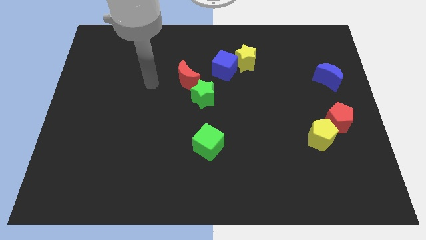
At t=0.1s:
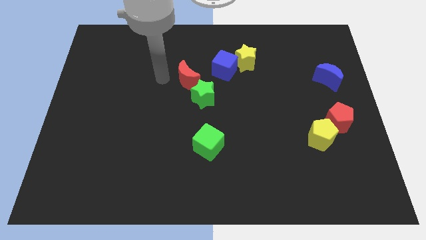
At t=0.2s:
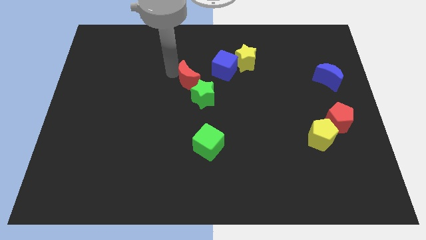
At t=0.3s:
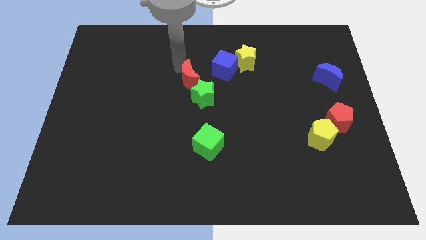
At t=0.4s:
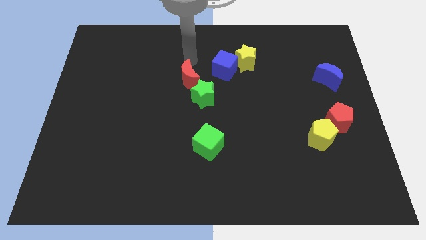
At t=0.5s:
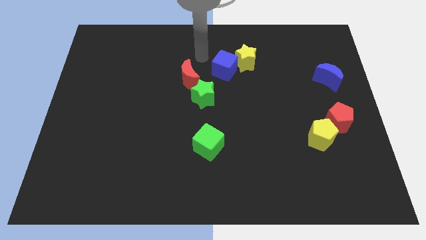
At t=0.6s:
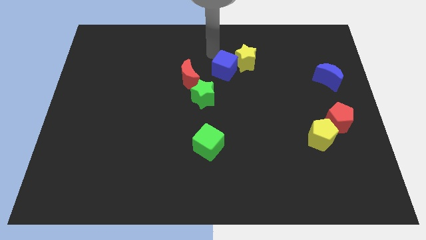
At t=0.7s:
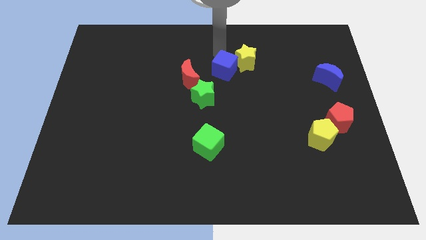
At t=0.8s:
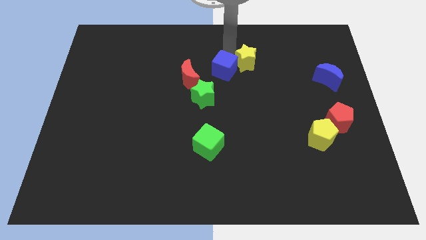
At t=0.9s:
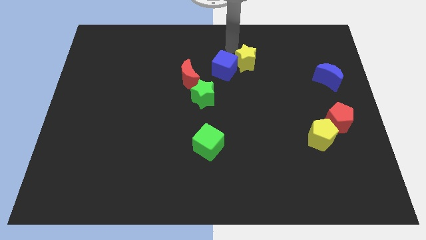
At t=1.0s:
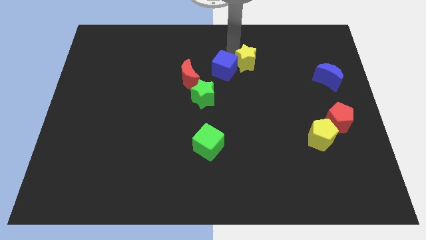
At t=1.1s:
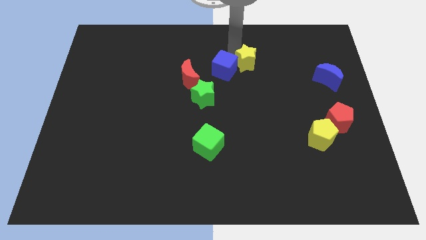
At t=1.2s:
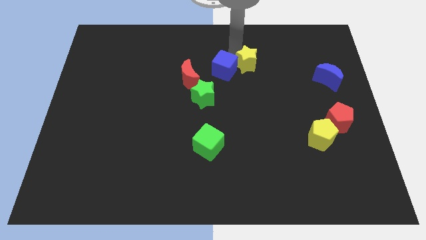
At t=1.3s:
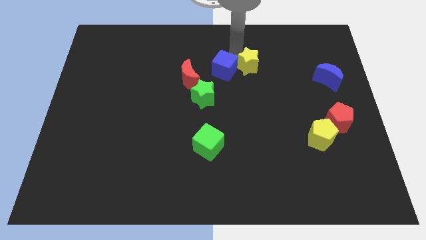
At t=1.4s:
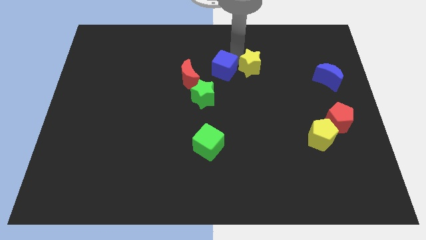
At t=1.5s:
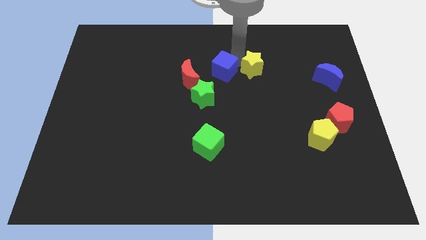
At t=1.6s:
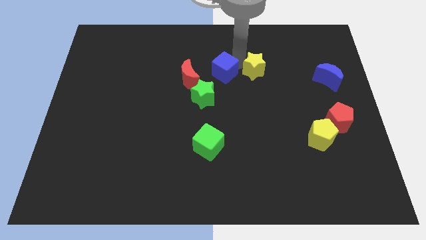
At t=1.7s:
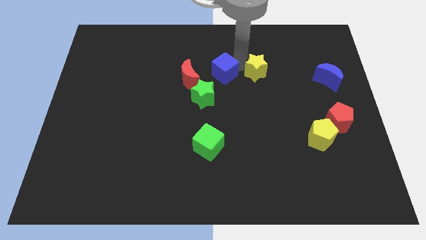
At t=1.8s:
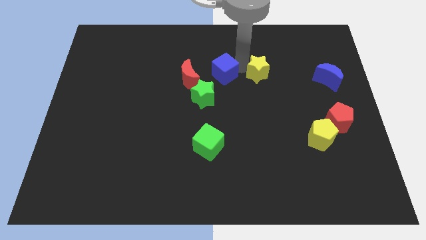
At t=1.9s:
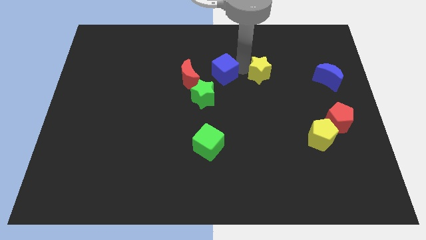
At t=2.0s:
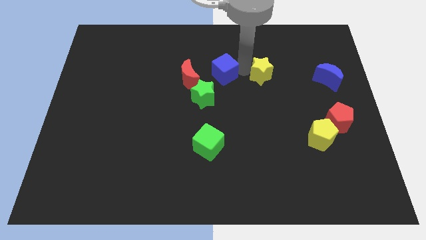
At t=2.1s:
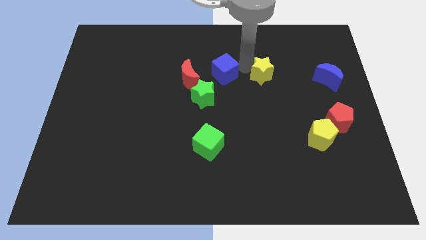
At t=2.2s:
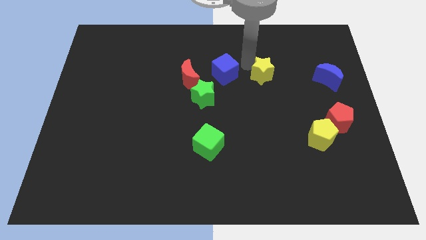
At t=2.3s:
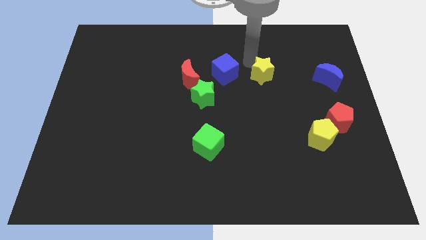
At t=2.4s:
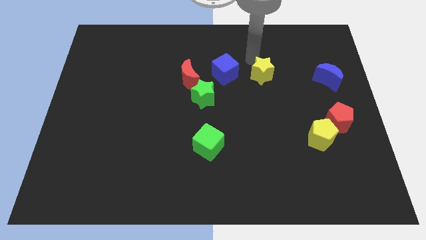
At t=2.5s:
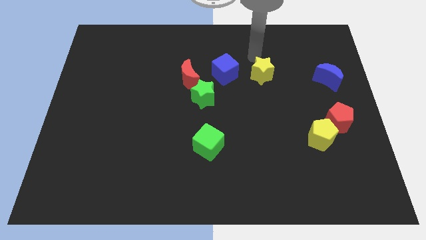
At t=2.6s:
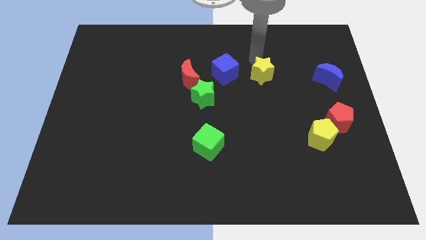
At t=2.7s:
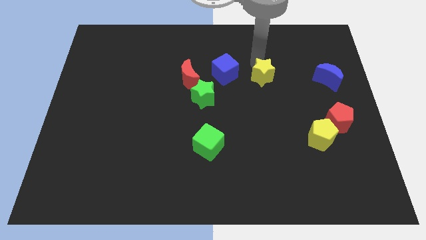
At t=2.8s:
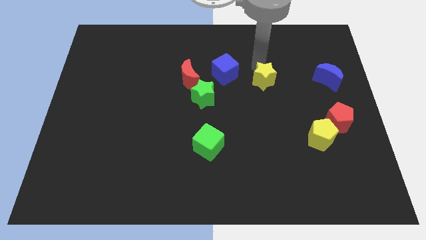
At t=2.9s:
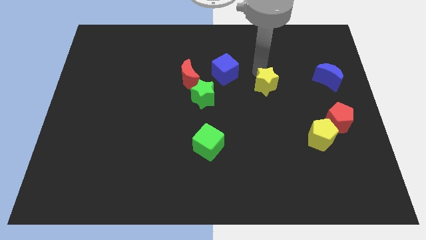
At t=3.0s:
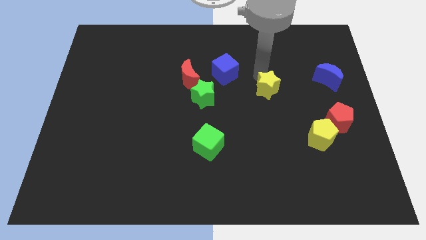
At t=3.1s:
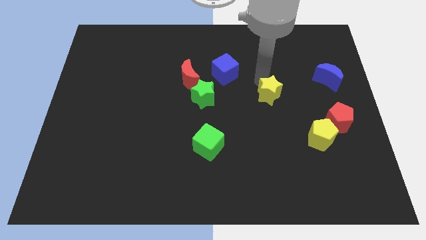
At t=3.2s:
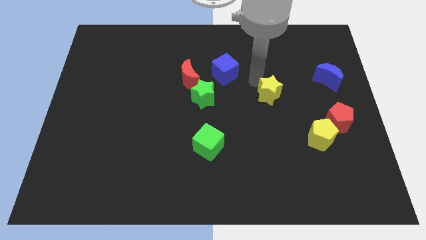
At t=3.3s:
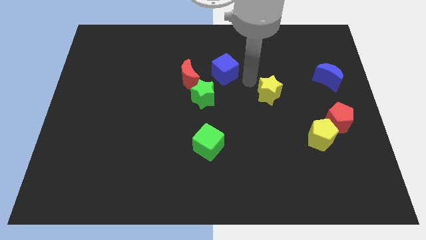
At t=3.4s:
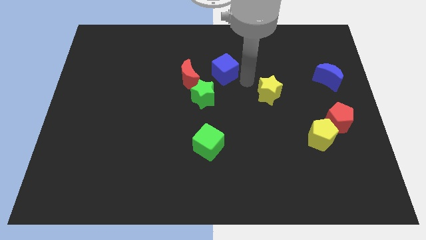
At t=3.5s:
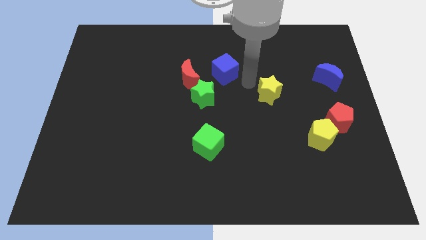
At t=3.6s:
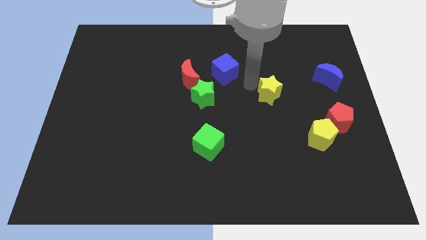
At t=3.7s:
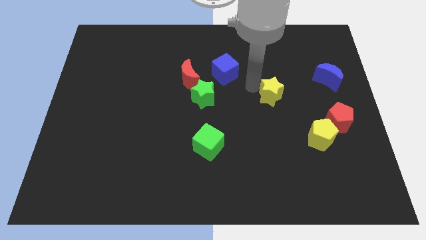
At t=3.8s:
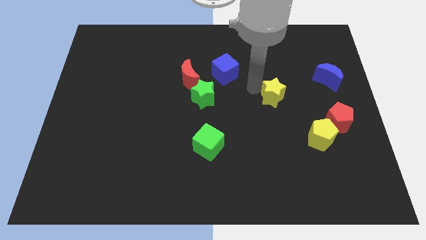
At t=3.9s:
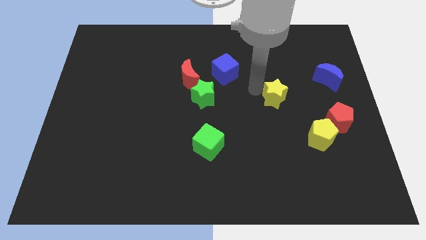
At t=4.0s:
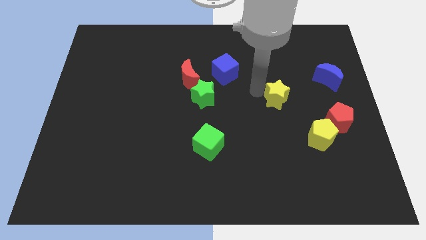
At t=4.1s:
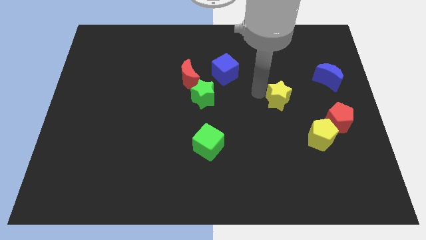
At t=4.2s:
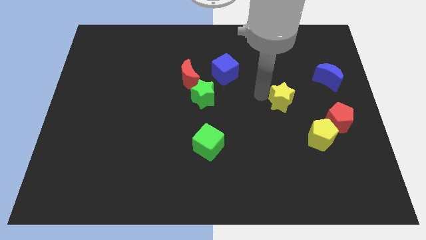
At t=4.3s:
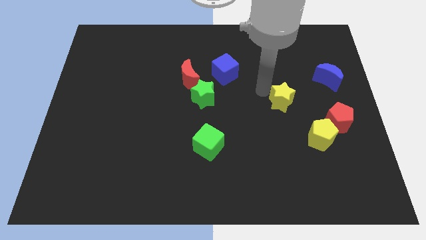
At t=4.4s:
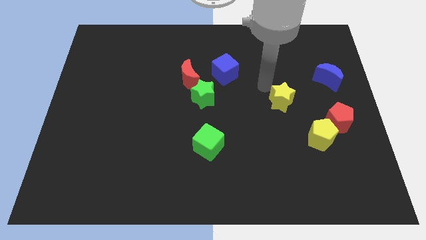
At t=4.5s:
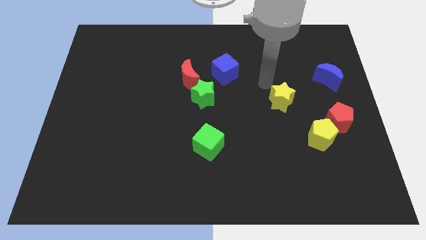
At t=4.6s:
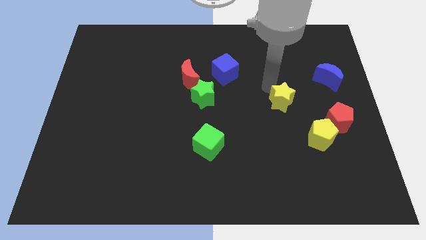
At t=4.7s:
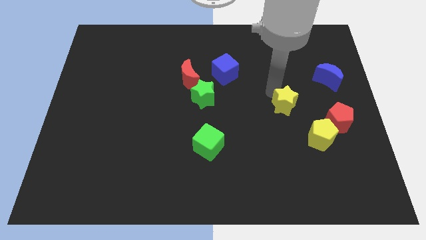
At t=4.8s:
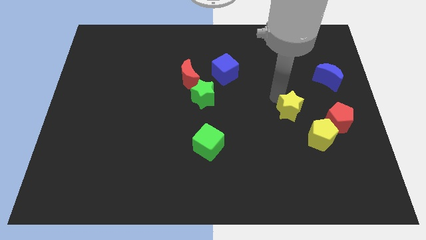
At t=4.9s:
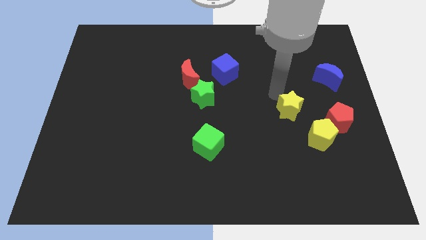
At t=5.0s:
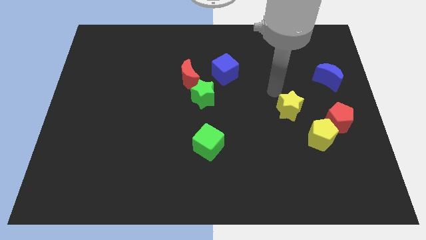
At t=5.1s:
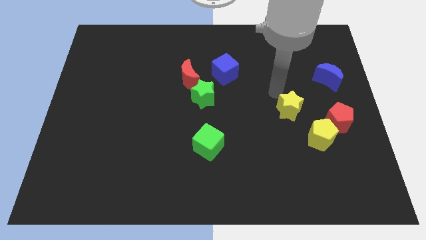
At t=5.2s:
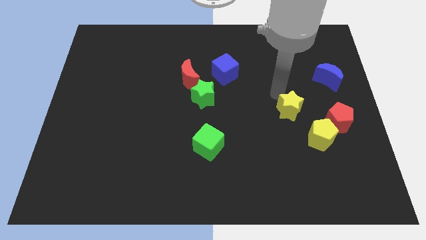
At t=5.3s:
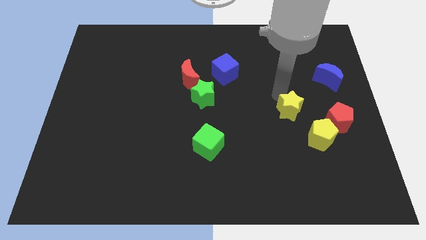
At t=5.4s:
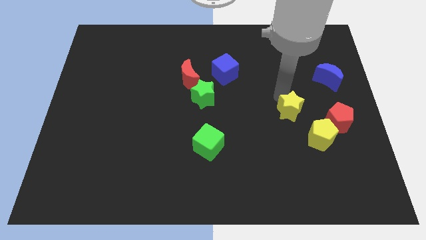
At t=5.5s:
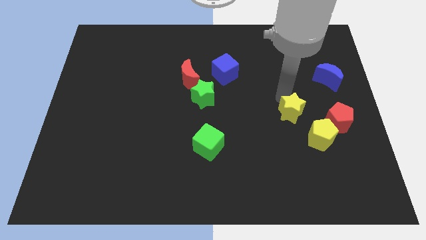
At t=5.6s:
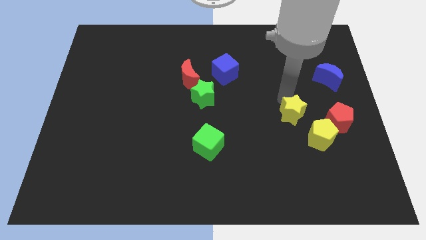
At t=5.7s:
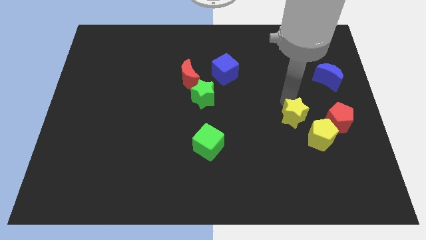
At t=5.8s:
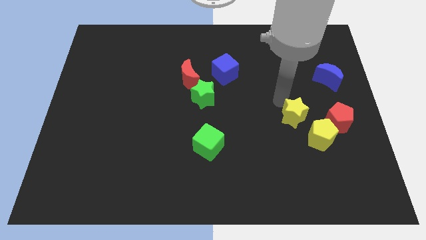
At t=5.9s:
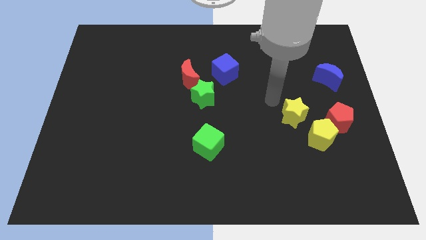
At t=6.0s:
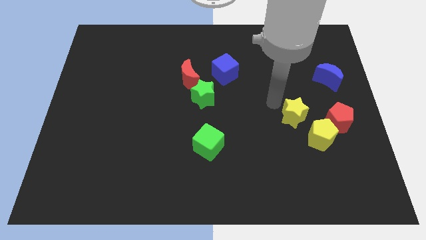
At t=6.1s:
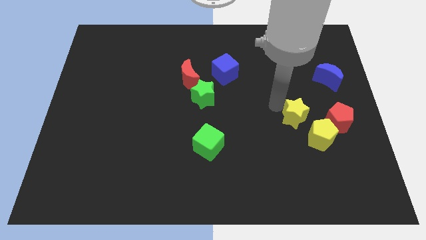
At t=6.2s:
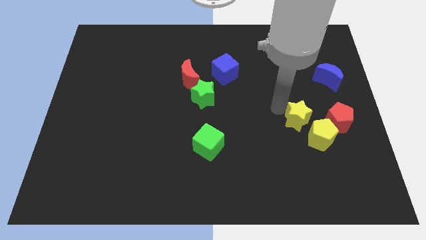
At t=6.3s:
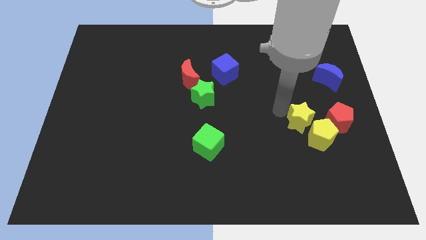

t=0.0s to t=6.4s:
put the yellow star to the yellow pentagon

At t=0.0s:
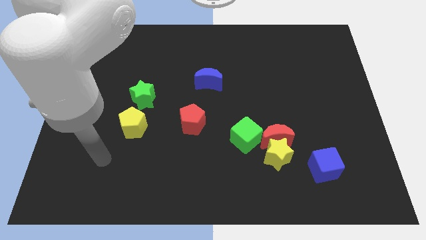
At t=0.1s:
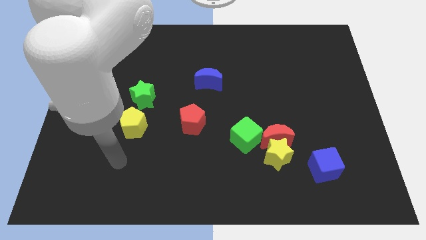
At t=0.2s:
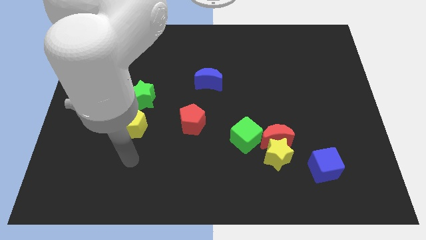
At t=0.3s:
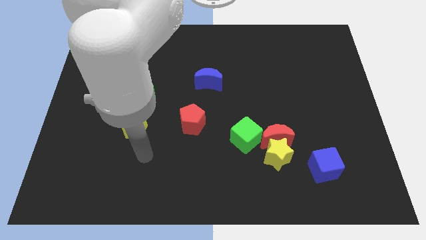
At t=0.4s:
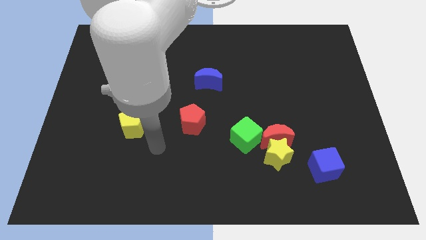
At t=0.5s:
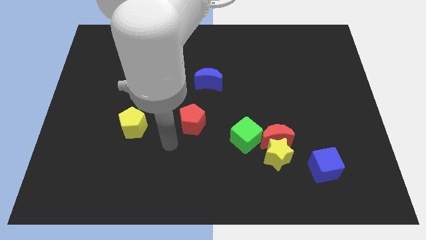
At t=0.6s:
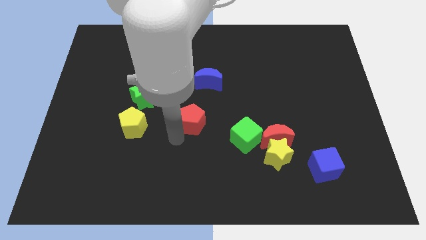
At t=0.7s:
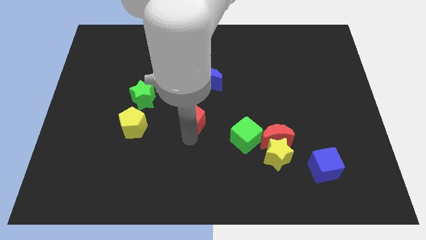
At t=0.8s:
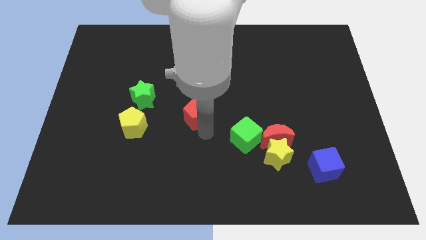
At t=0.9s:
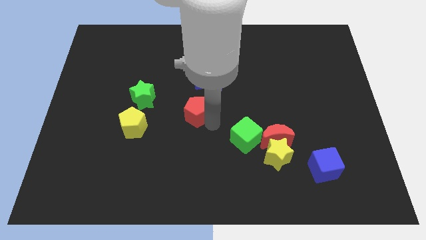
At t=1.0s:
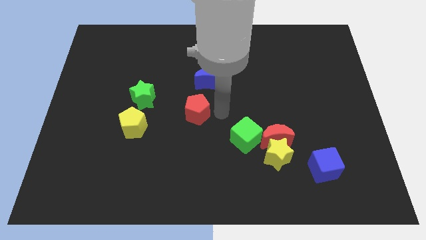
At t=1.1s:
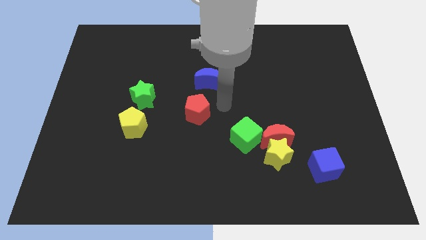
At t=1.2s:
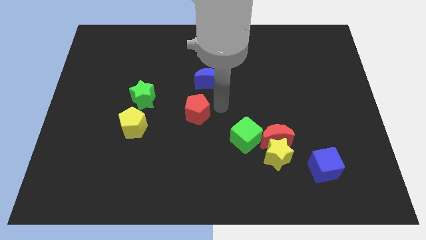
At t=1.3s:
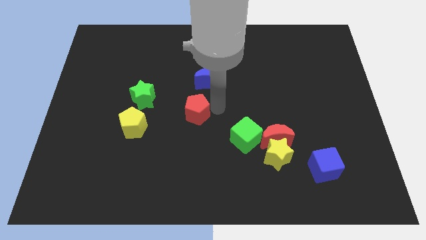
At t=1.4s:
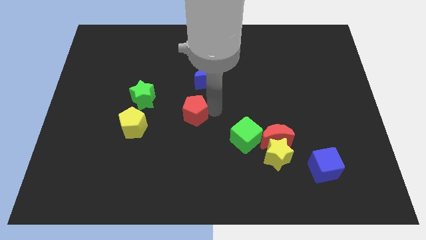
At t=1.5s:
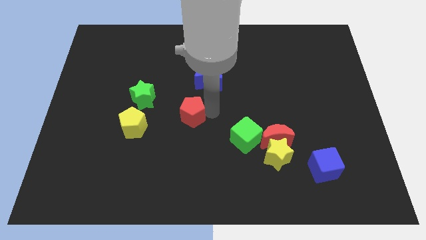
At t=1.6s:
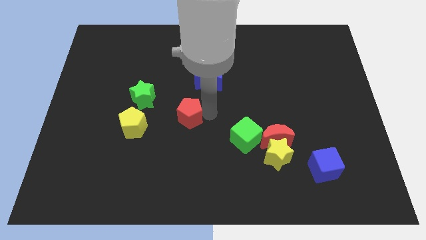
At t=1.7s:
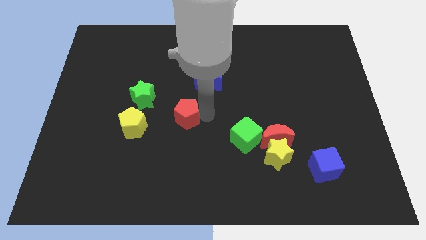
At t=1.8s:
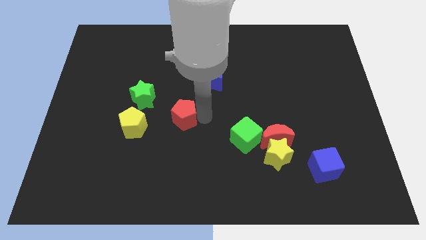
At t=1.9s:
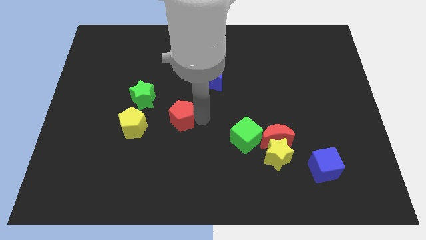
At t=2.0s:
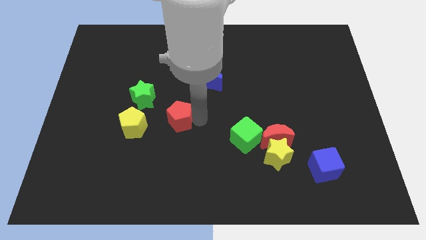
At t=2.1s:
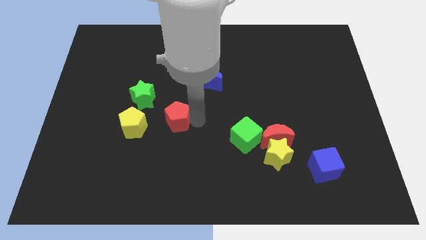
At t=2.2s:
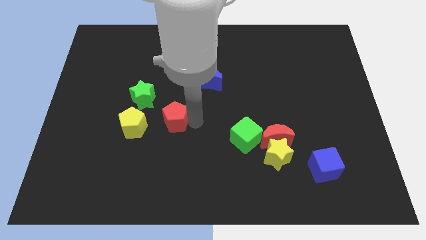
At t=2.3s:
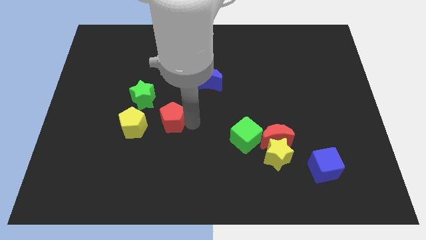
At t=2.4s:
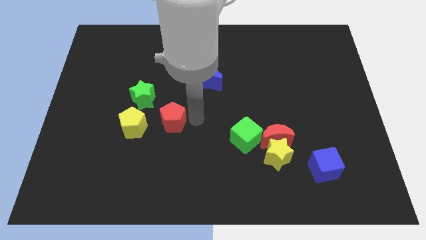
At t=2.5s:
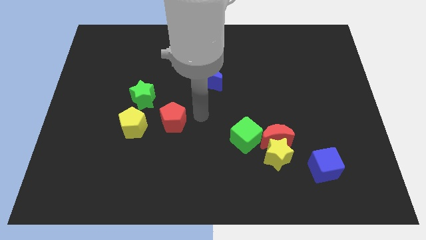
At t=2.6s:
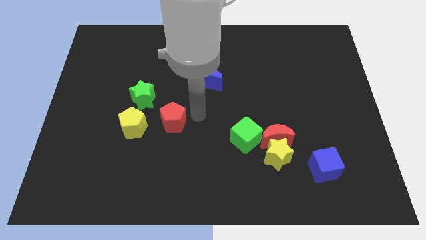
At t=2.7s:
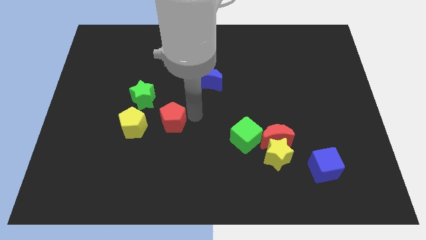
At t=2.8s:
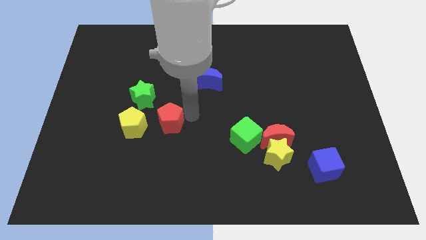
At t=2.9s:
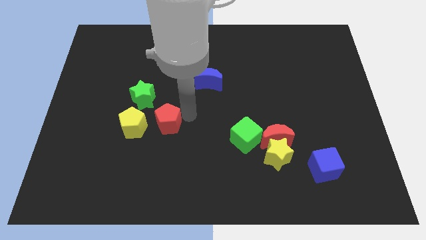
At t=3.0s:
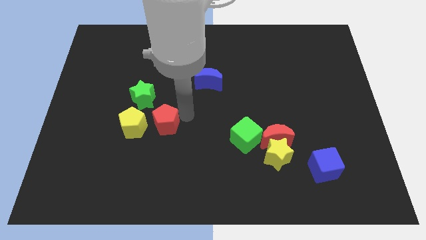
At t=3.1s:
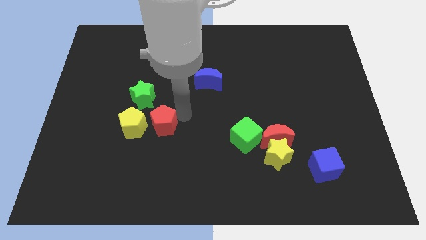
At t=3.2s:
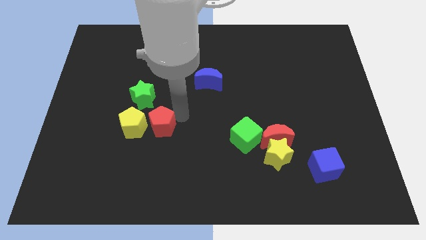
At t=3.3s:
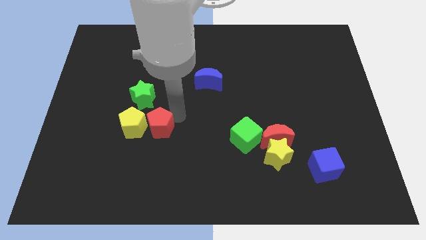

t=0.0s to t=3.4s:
move the red pentagon towards the yellow pentagon
